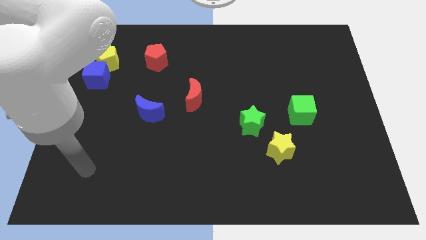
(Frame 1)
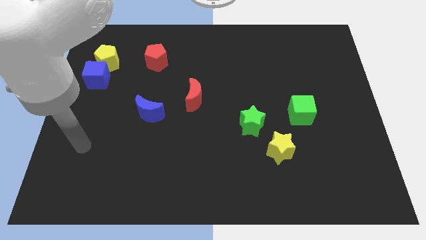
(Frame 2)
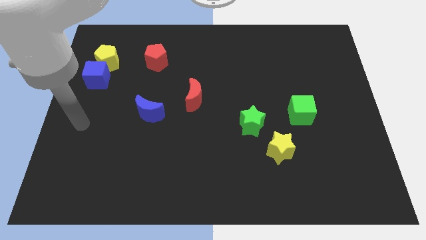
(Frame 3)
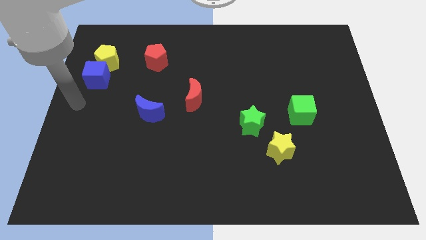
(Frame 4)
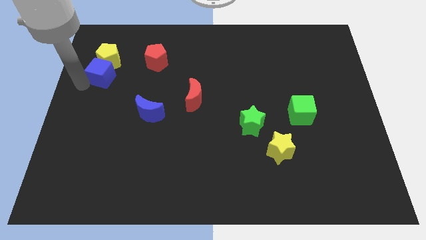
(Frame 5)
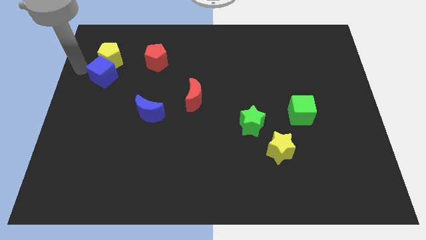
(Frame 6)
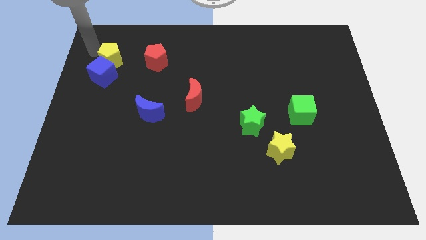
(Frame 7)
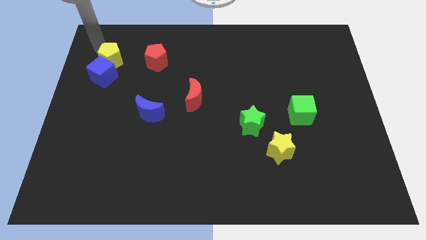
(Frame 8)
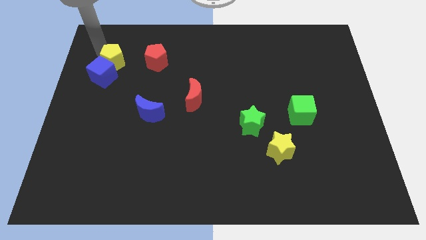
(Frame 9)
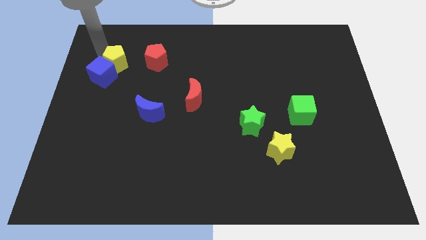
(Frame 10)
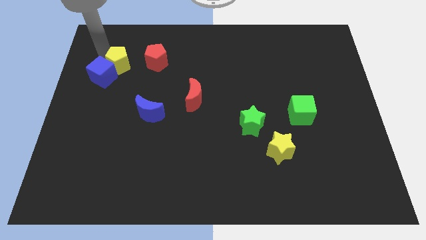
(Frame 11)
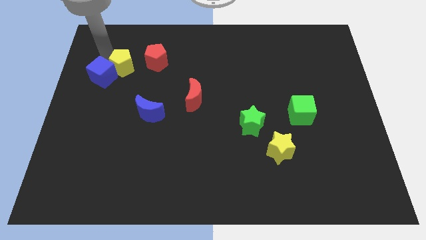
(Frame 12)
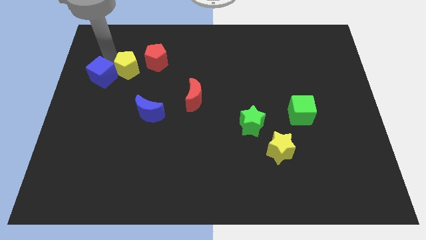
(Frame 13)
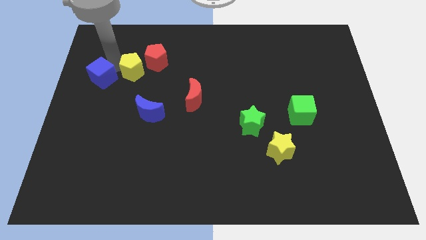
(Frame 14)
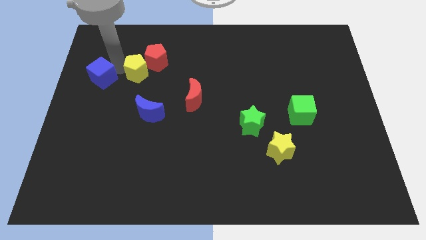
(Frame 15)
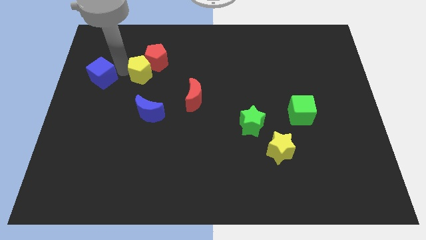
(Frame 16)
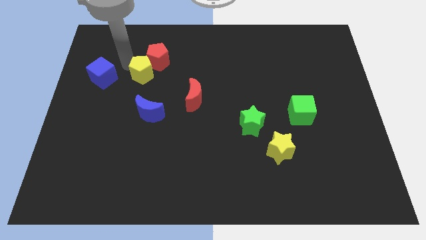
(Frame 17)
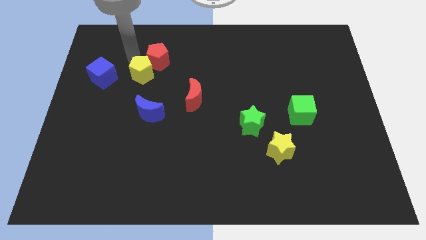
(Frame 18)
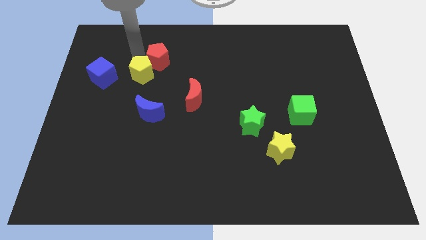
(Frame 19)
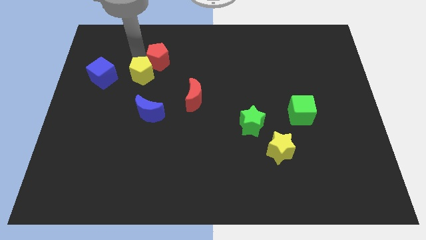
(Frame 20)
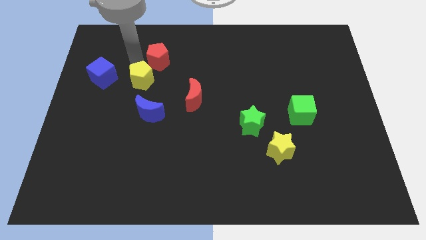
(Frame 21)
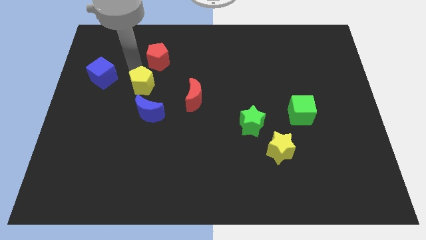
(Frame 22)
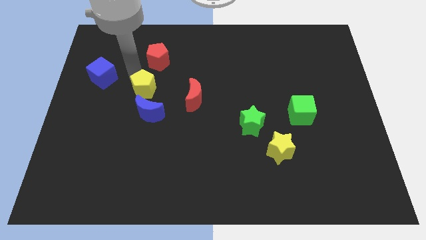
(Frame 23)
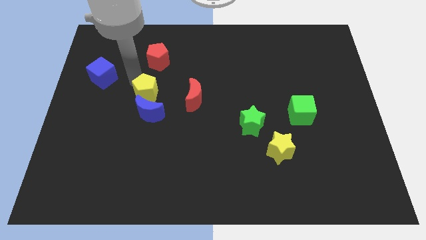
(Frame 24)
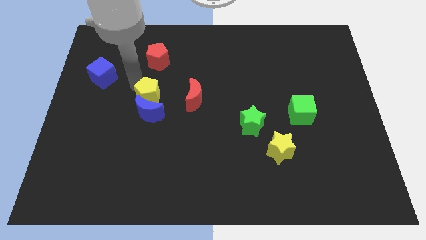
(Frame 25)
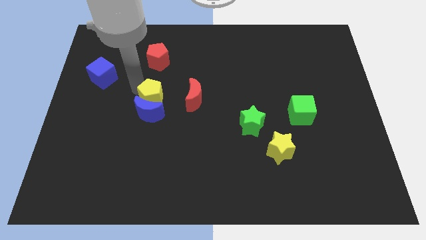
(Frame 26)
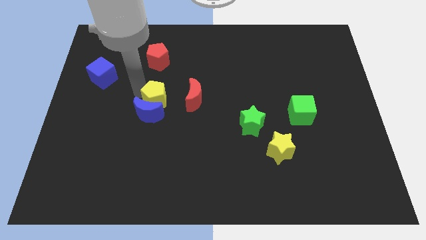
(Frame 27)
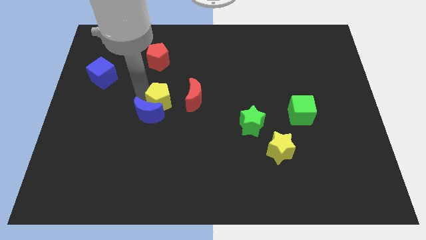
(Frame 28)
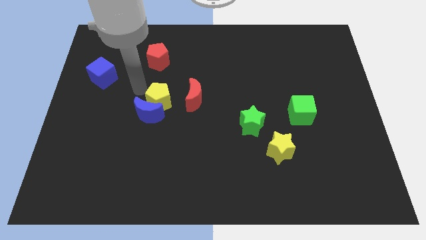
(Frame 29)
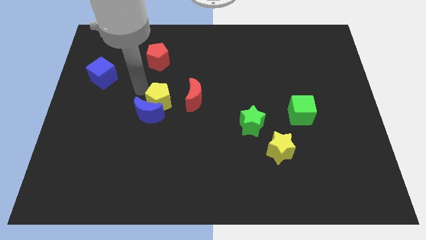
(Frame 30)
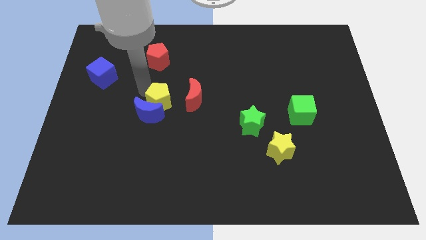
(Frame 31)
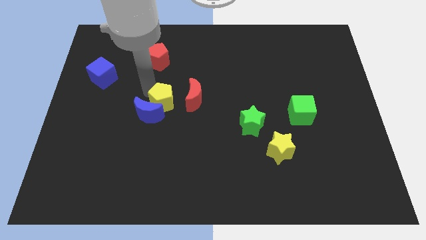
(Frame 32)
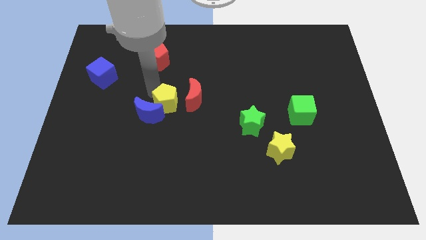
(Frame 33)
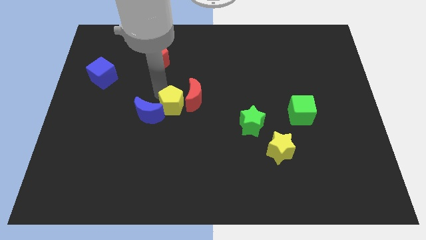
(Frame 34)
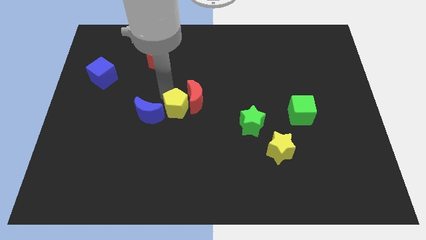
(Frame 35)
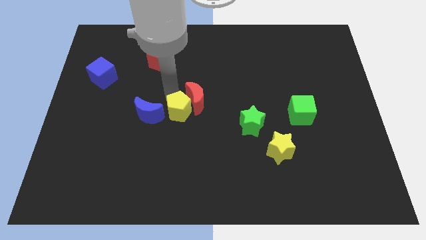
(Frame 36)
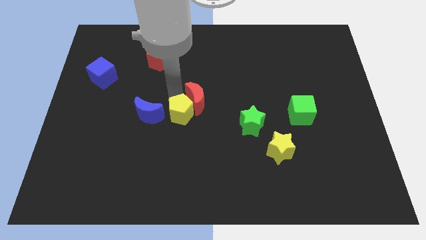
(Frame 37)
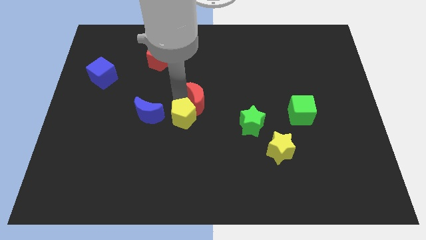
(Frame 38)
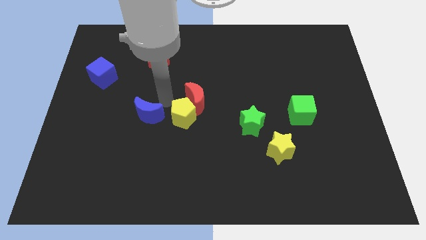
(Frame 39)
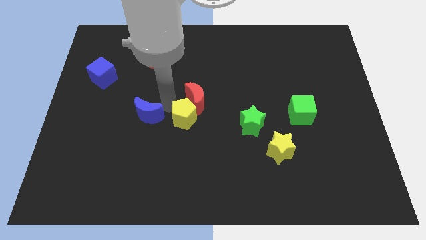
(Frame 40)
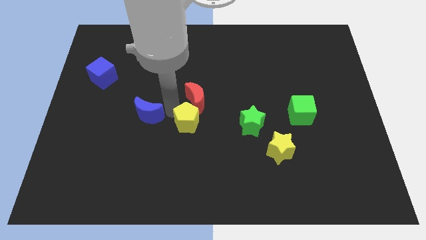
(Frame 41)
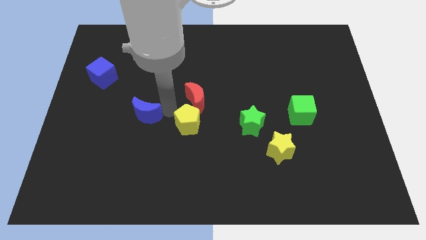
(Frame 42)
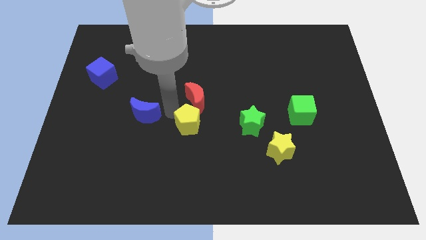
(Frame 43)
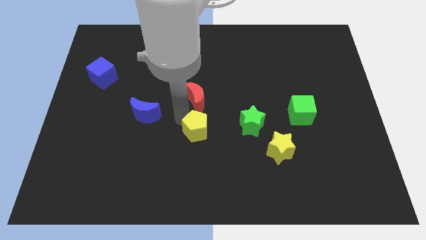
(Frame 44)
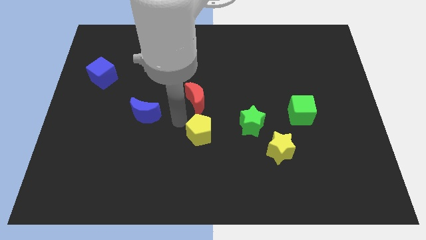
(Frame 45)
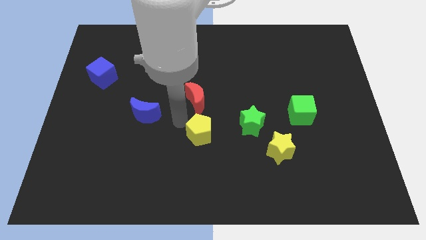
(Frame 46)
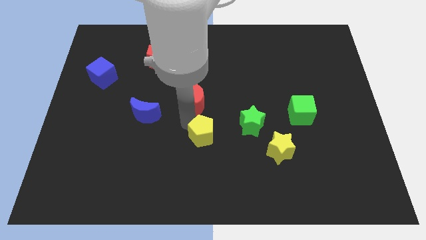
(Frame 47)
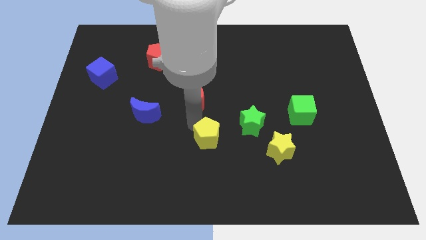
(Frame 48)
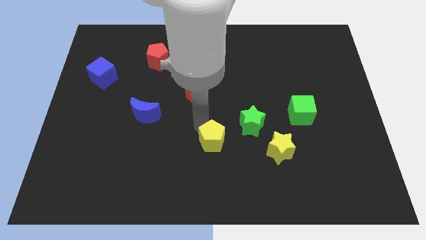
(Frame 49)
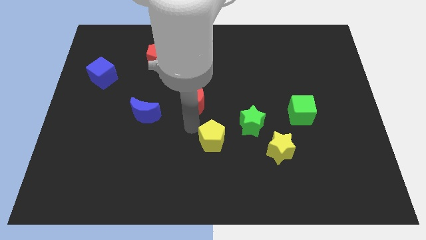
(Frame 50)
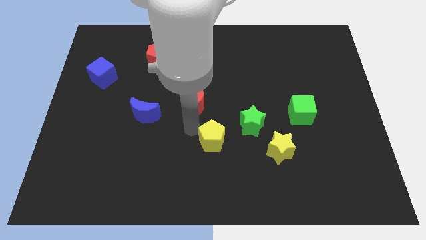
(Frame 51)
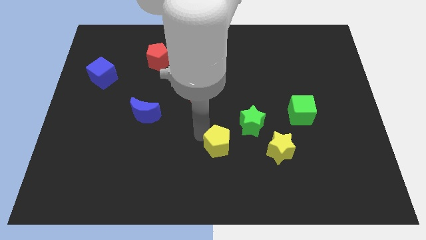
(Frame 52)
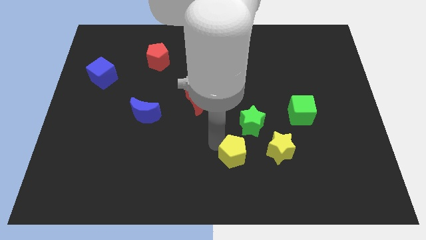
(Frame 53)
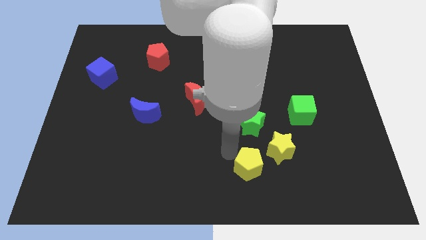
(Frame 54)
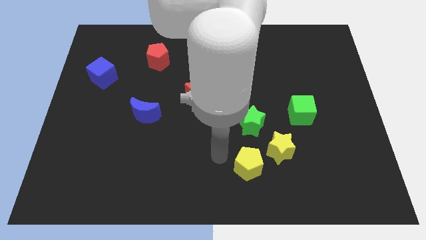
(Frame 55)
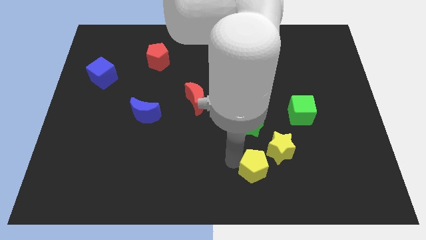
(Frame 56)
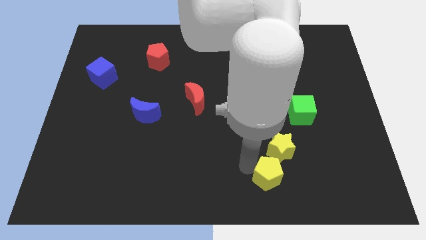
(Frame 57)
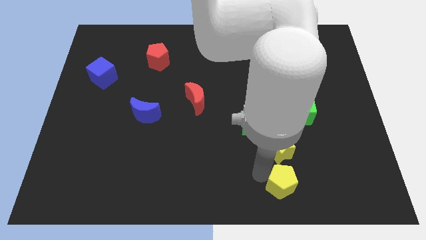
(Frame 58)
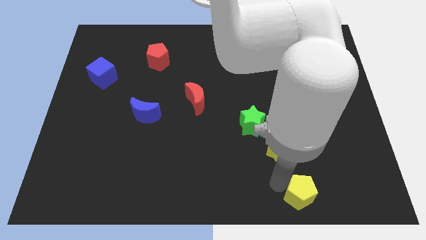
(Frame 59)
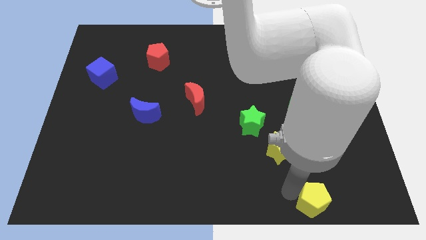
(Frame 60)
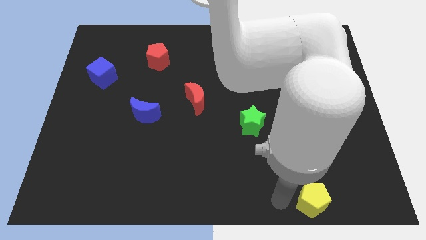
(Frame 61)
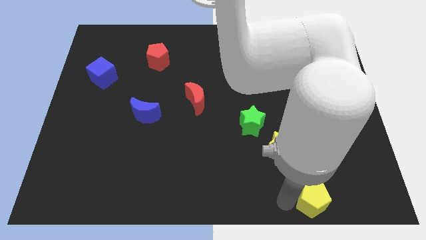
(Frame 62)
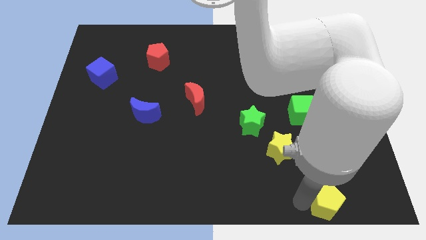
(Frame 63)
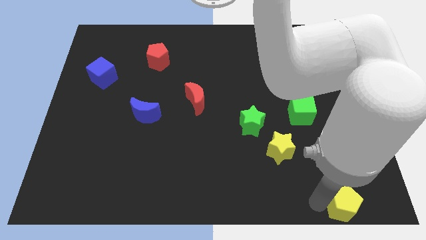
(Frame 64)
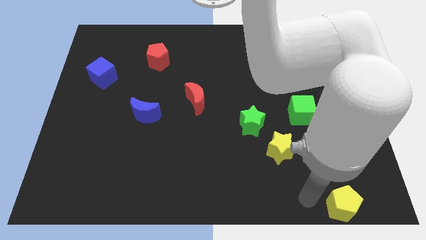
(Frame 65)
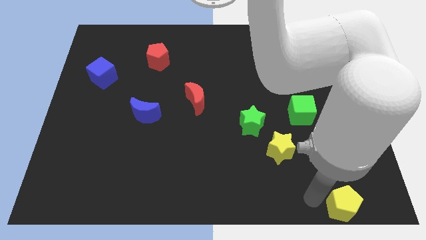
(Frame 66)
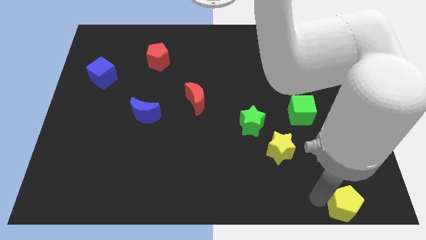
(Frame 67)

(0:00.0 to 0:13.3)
slide the yellow pentagon to the bottom right

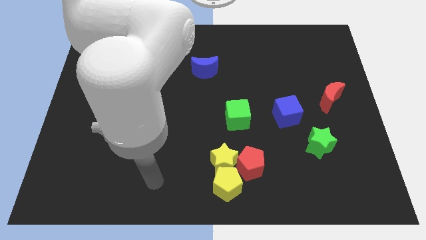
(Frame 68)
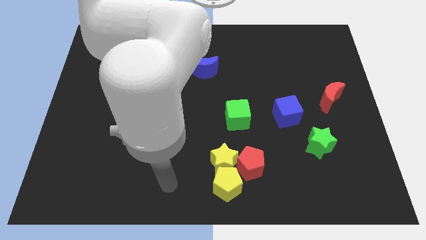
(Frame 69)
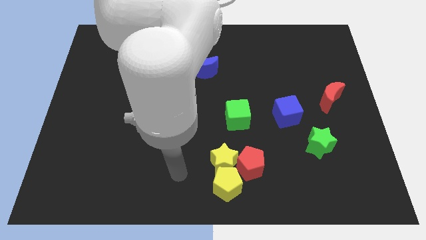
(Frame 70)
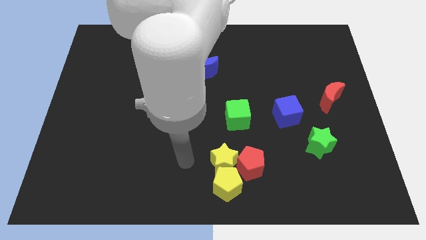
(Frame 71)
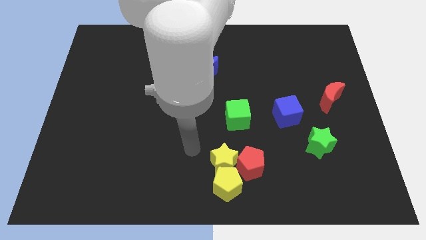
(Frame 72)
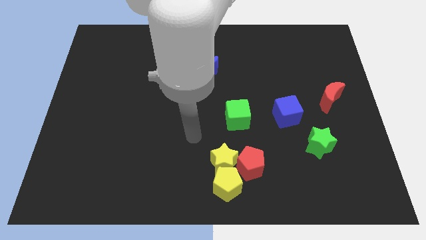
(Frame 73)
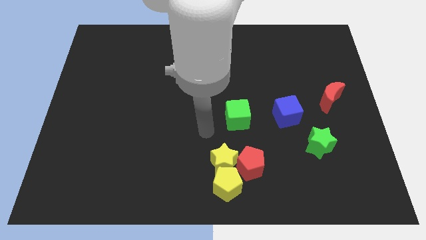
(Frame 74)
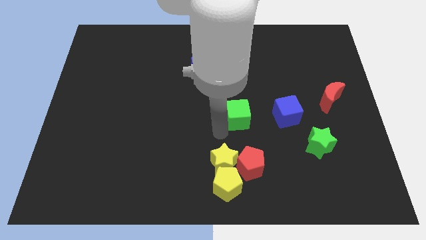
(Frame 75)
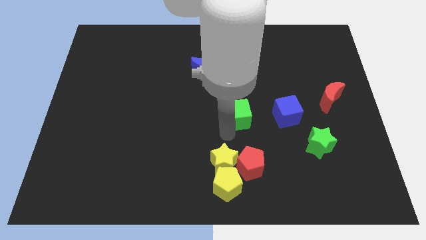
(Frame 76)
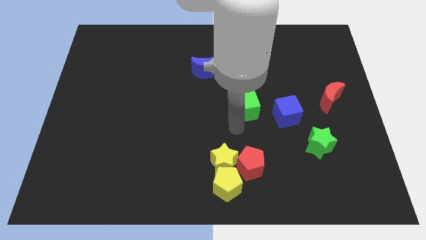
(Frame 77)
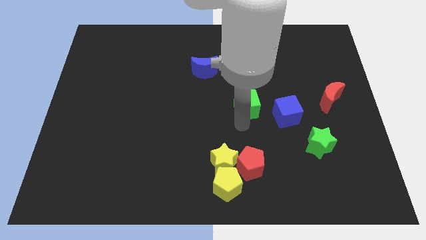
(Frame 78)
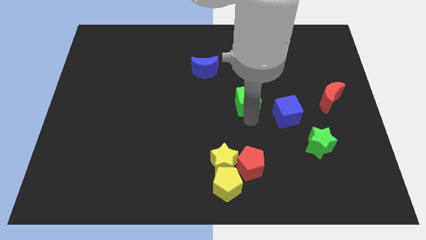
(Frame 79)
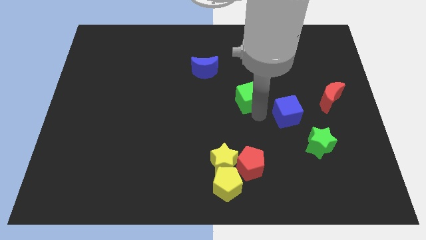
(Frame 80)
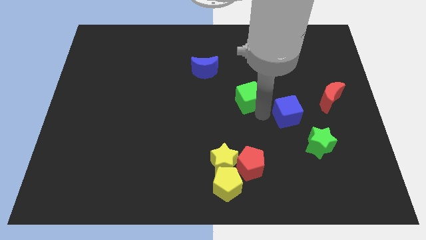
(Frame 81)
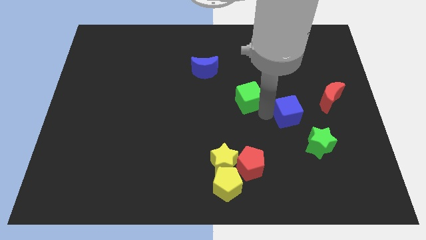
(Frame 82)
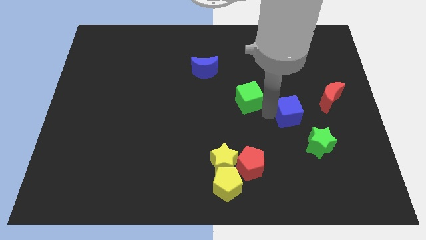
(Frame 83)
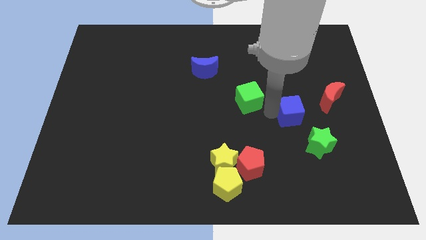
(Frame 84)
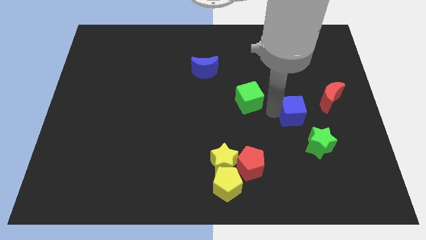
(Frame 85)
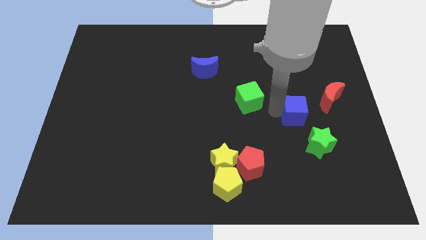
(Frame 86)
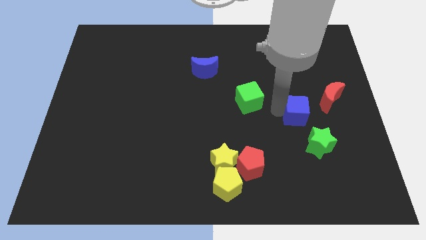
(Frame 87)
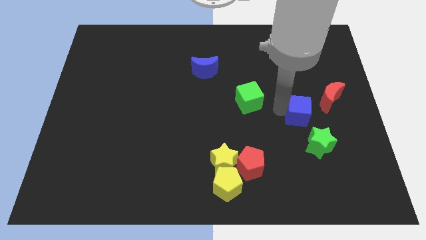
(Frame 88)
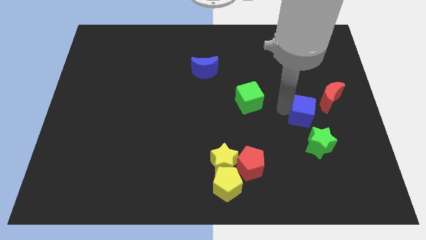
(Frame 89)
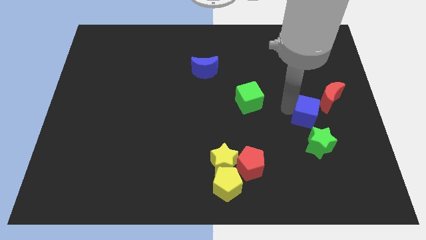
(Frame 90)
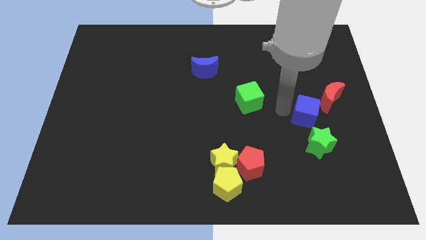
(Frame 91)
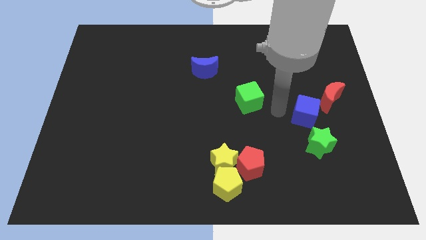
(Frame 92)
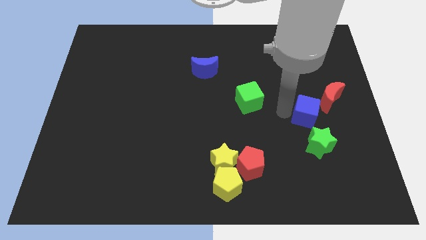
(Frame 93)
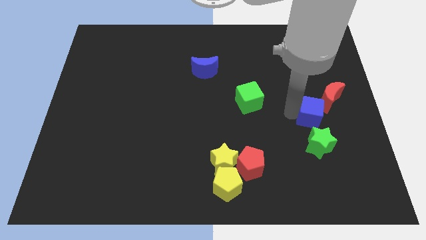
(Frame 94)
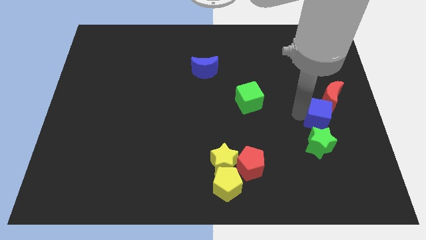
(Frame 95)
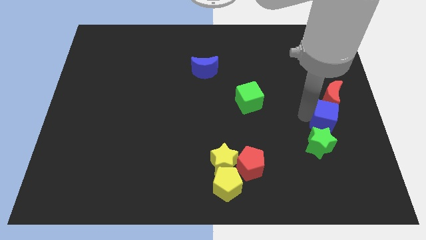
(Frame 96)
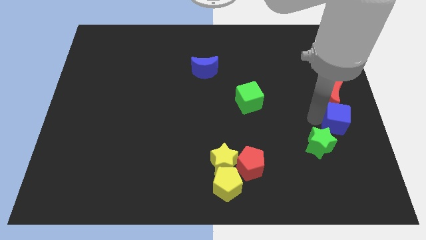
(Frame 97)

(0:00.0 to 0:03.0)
slide the blue cube to the right side of the board
